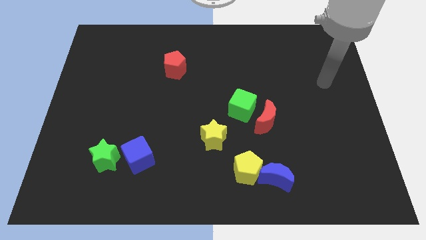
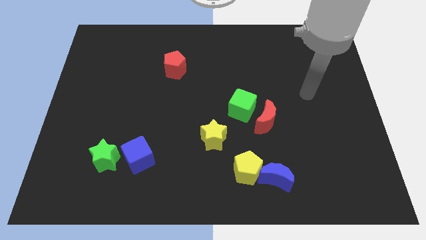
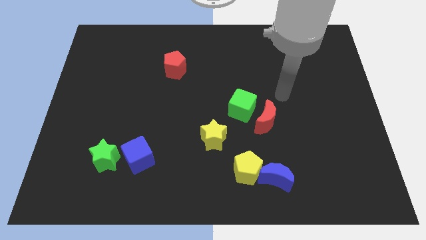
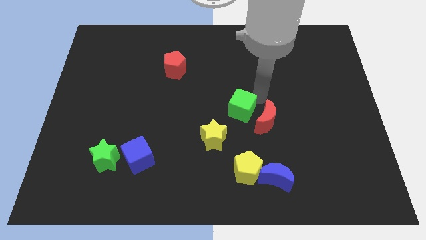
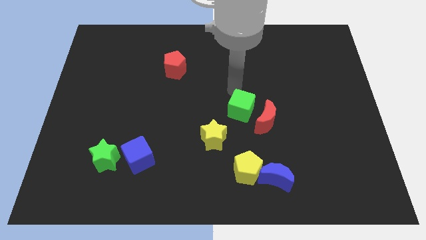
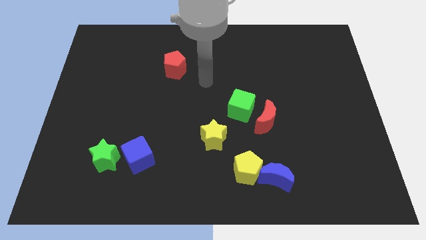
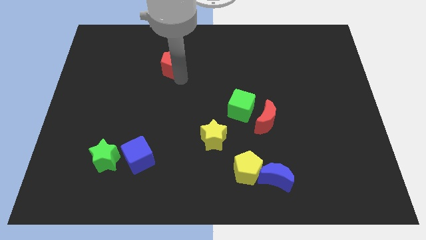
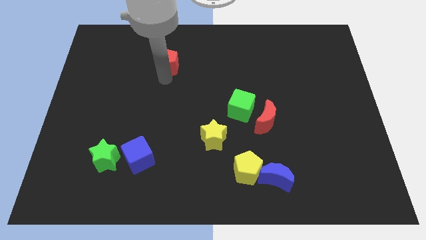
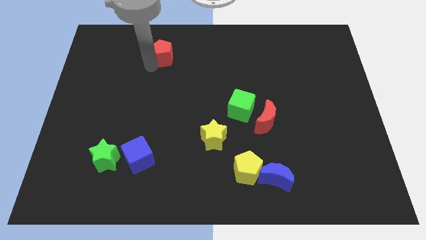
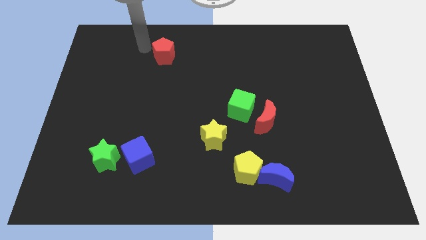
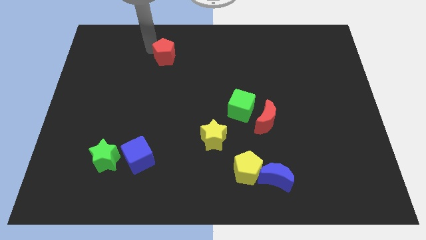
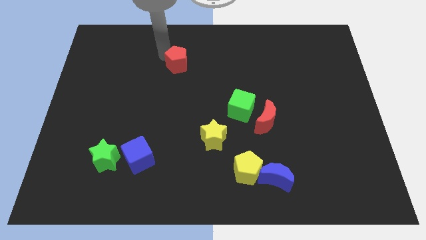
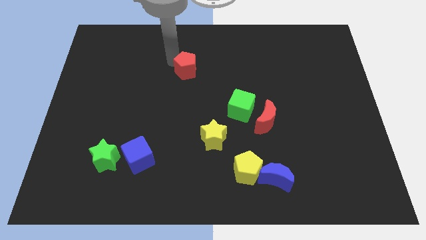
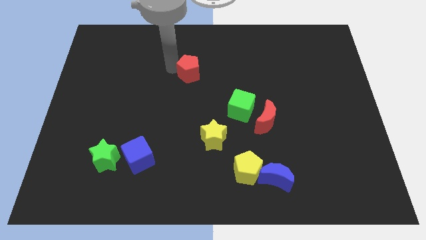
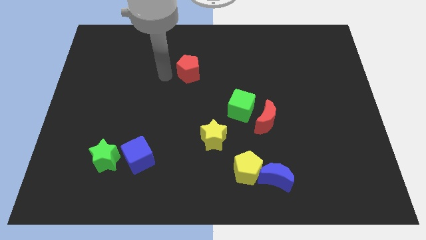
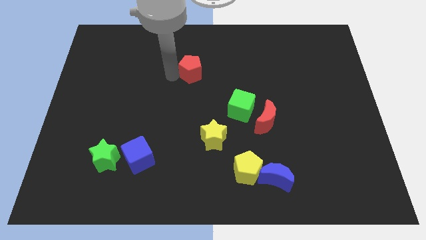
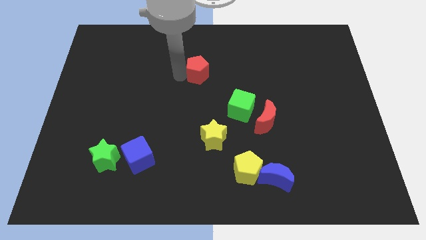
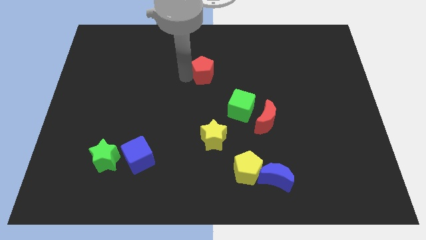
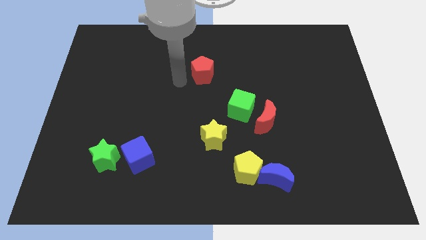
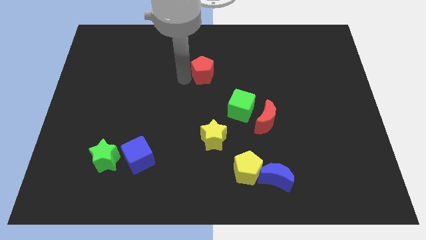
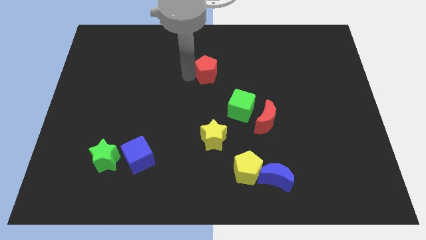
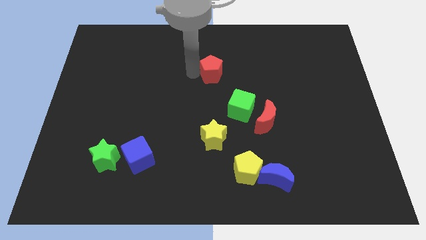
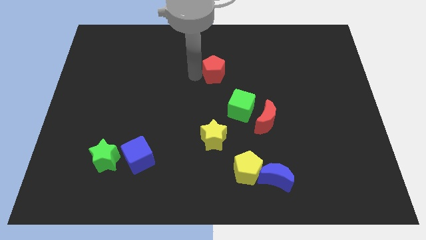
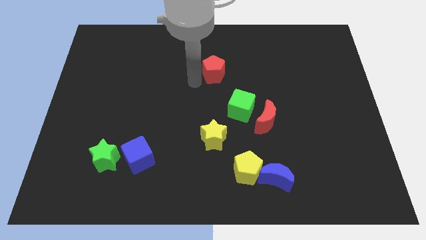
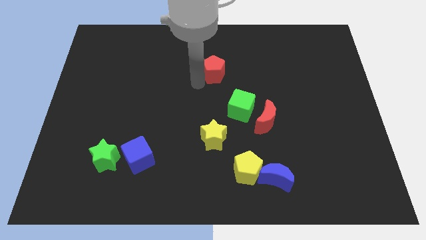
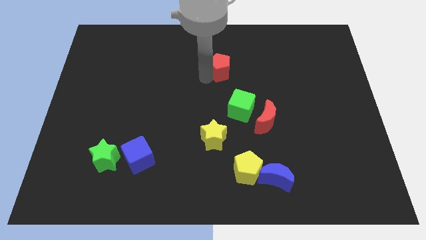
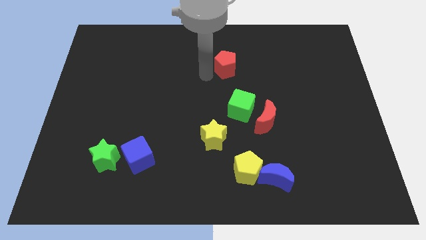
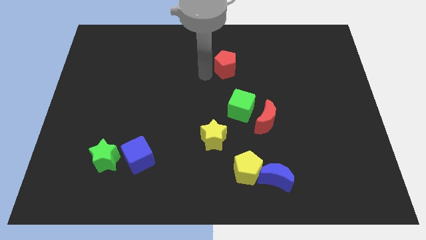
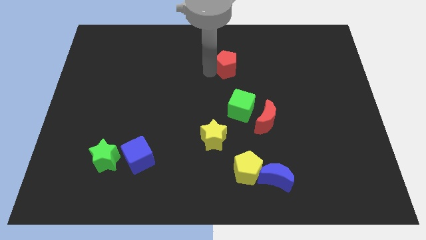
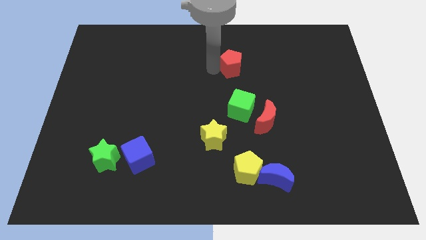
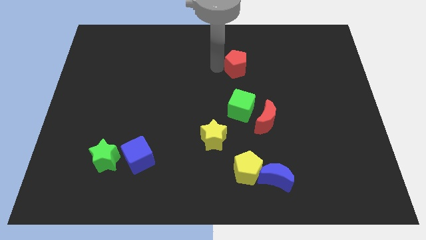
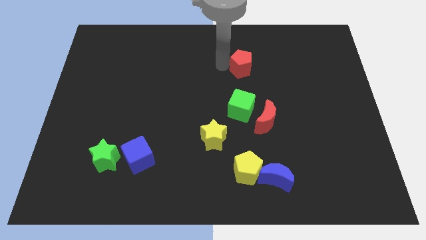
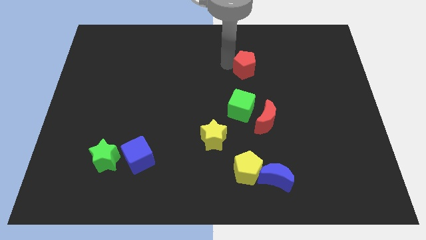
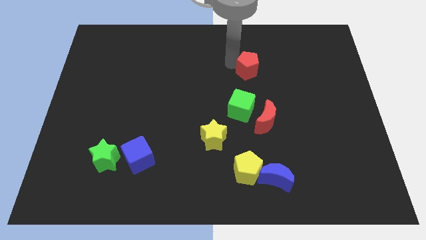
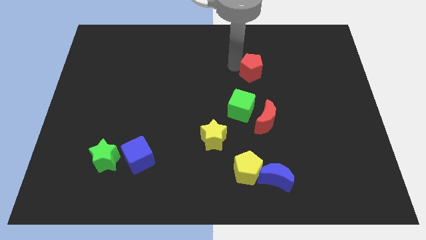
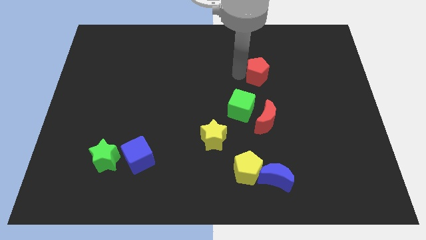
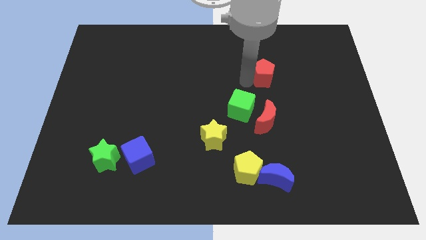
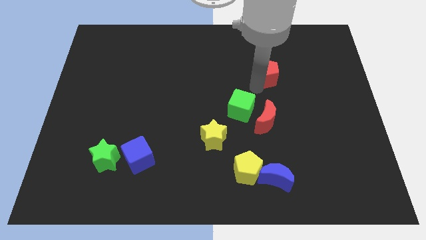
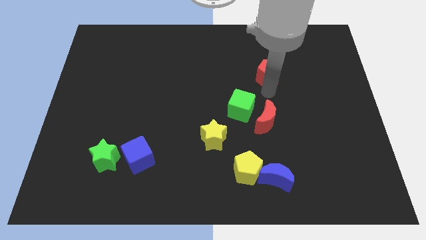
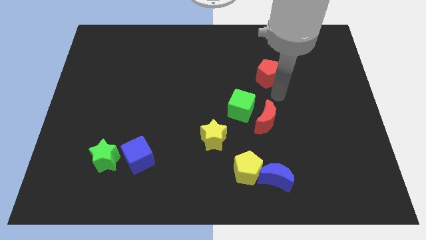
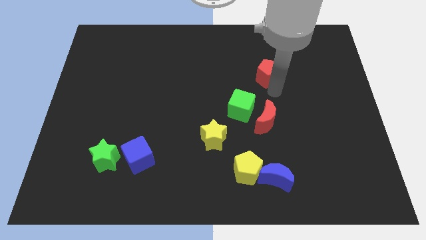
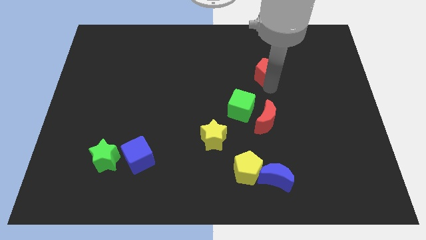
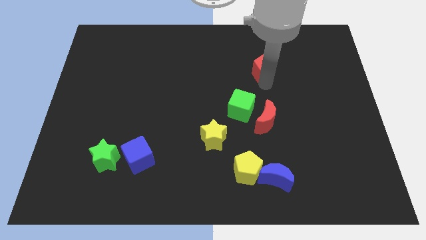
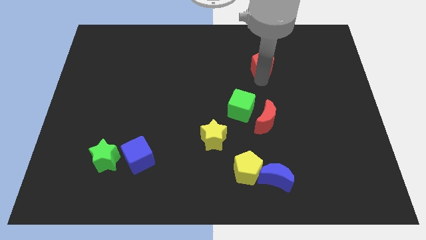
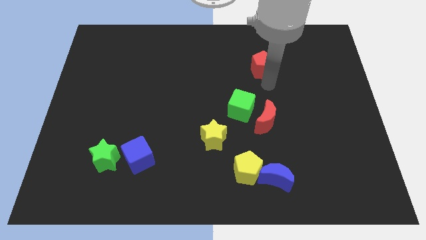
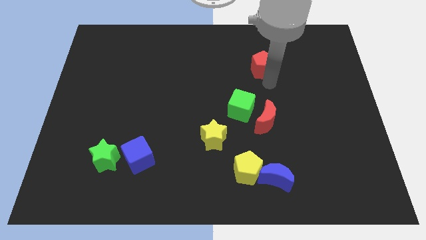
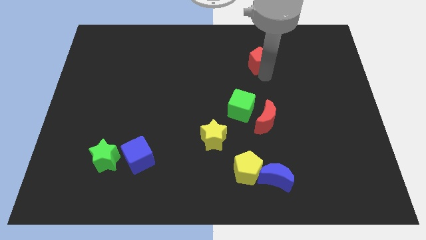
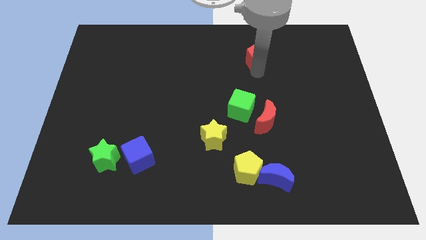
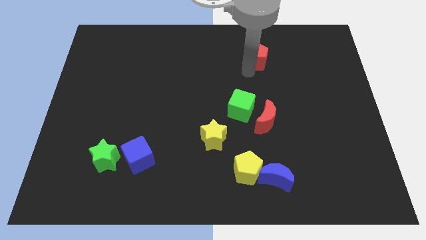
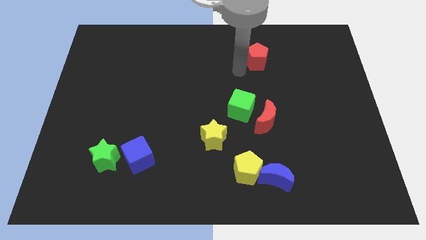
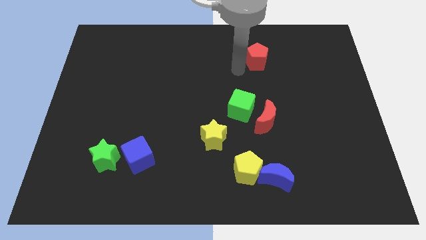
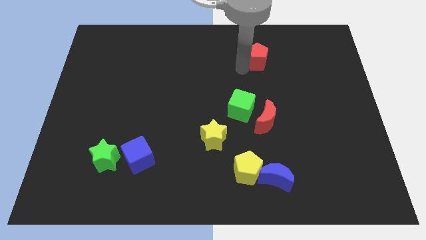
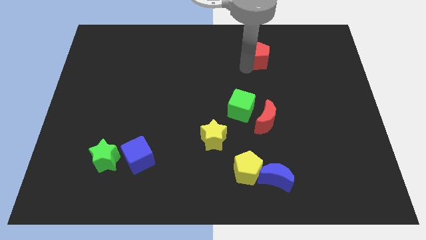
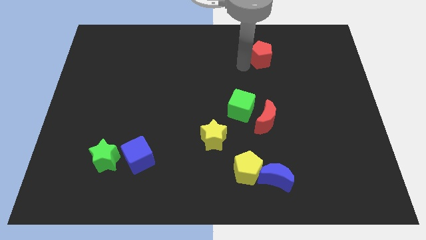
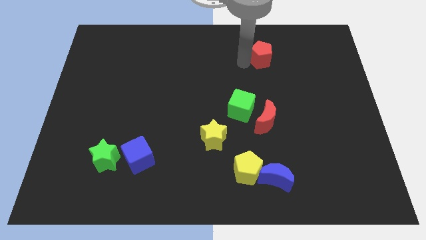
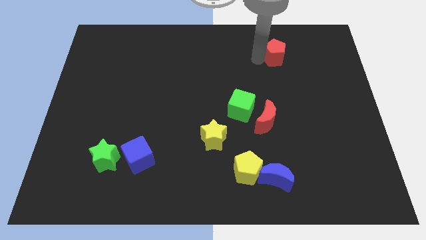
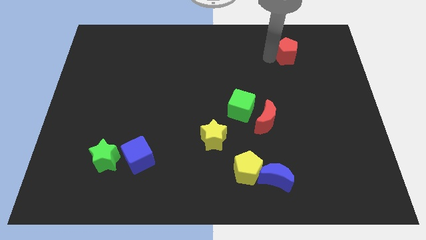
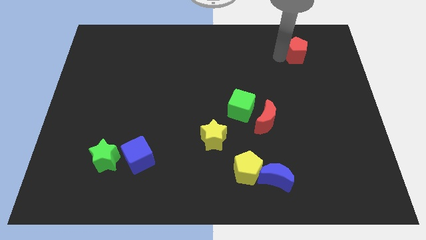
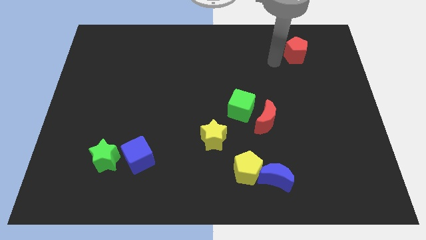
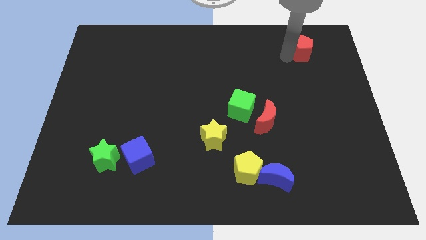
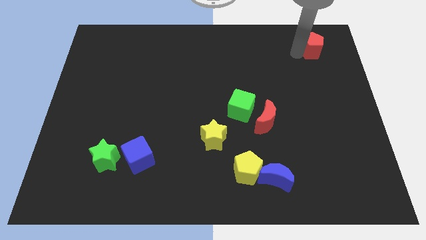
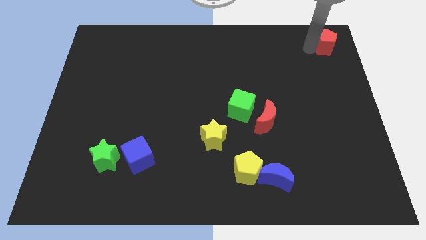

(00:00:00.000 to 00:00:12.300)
slide the red pentagon to the top right corner
